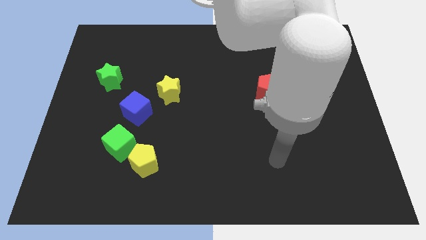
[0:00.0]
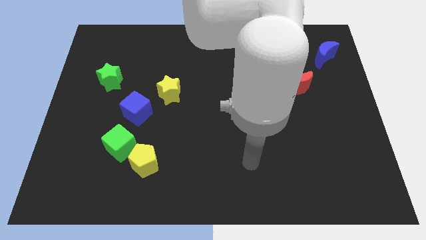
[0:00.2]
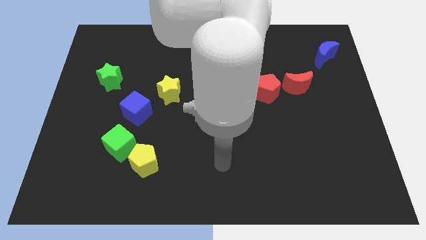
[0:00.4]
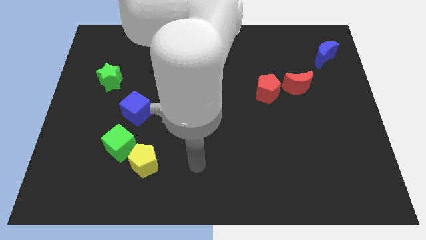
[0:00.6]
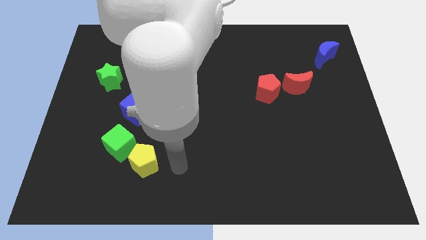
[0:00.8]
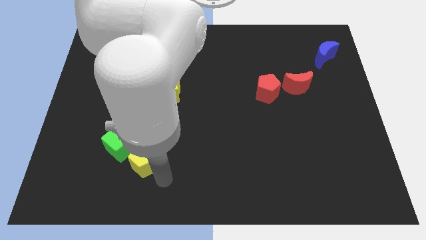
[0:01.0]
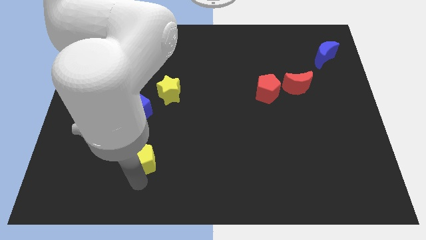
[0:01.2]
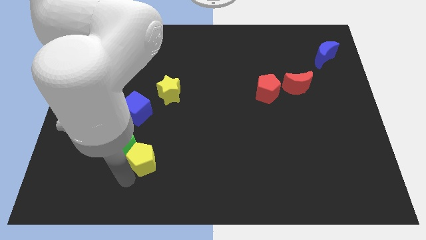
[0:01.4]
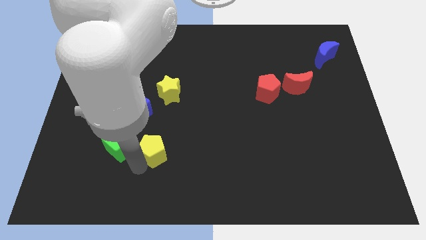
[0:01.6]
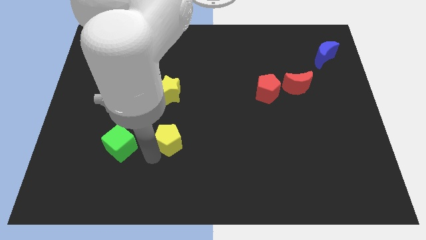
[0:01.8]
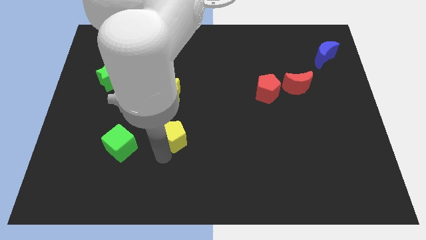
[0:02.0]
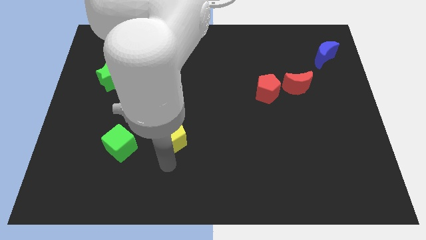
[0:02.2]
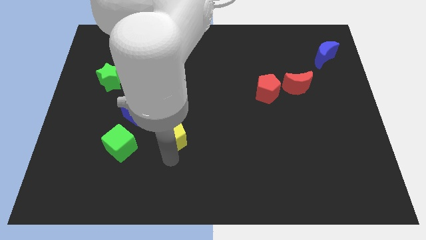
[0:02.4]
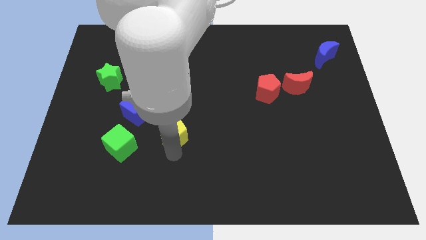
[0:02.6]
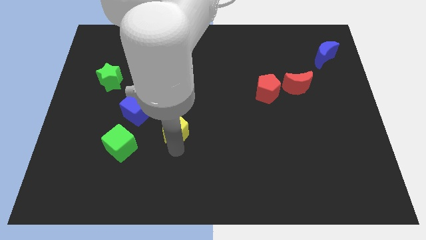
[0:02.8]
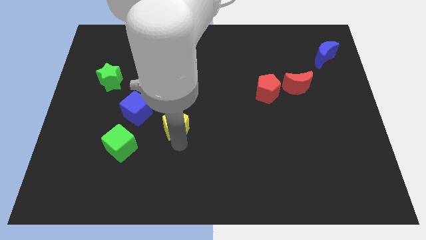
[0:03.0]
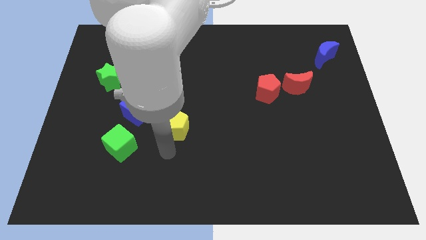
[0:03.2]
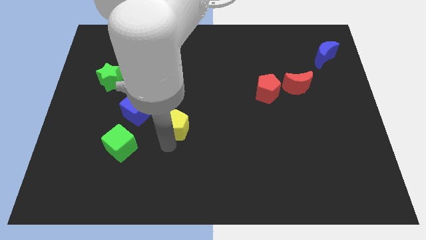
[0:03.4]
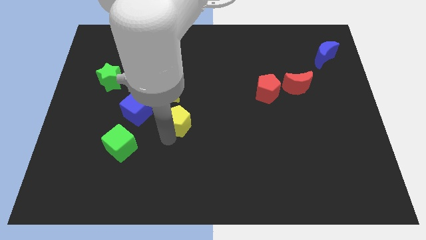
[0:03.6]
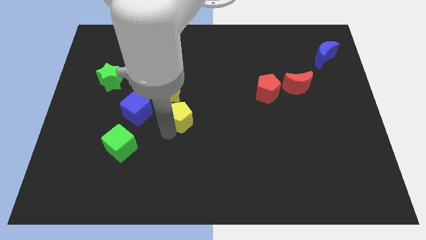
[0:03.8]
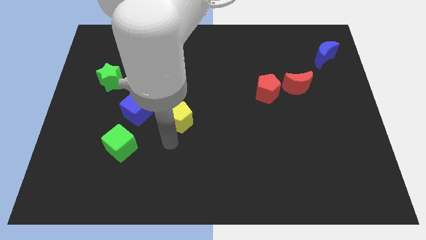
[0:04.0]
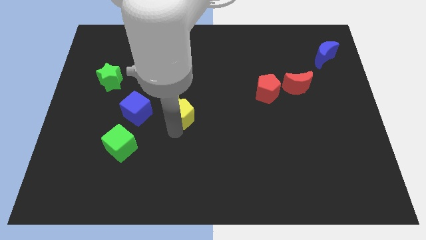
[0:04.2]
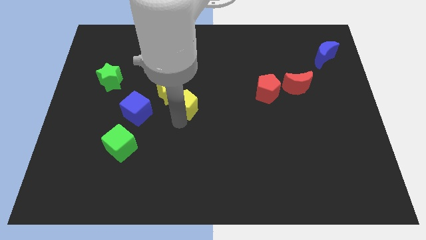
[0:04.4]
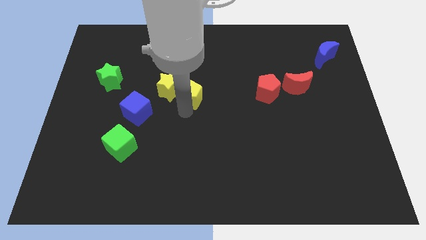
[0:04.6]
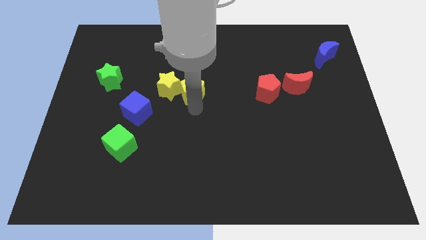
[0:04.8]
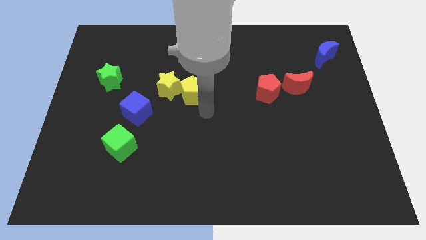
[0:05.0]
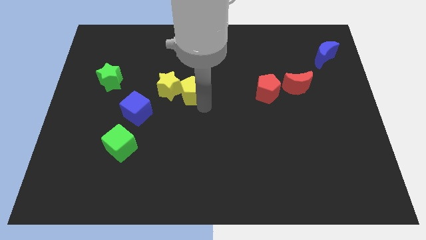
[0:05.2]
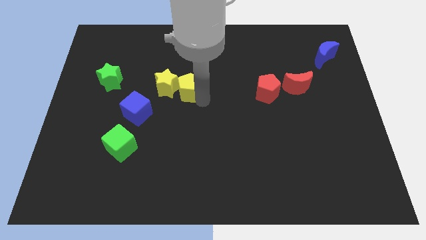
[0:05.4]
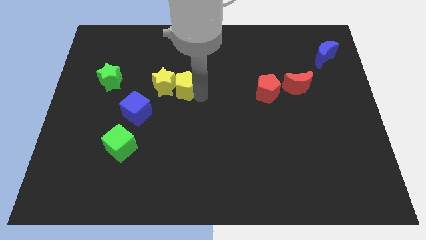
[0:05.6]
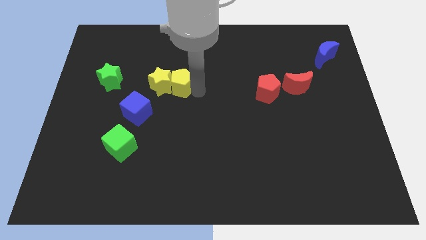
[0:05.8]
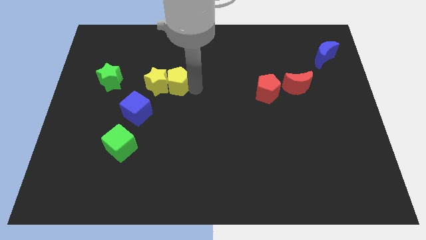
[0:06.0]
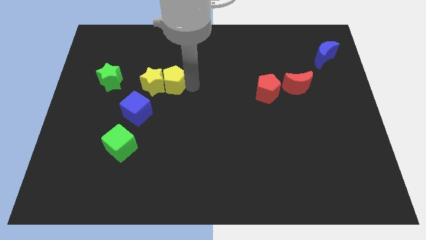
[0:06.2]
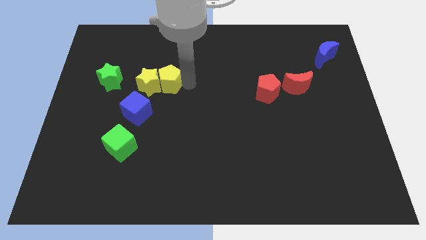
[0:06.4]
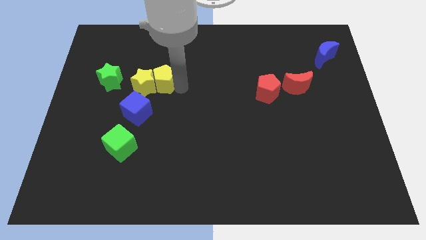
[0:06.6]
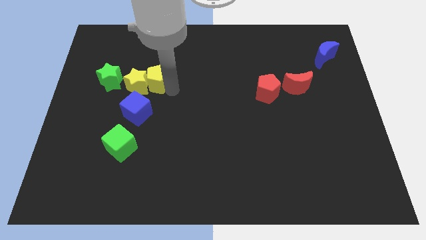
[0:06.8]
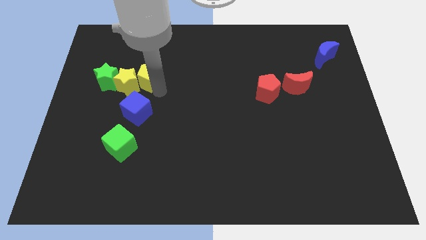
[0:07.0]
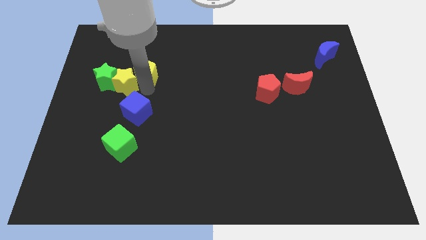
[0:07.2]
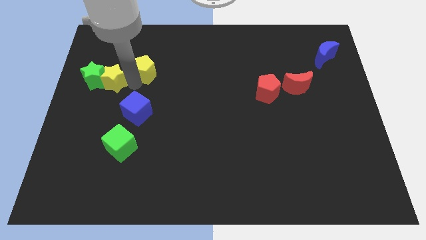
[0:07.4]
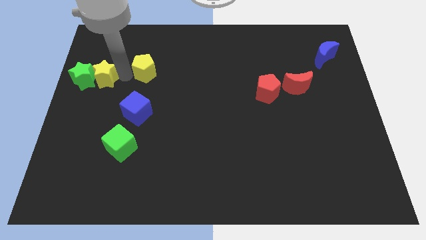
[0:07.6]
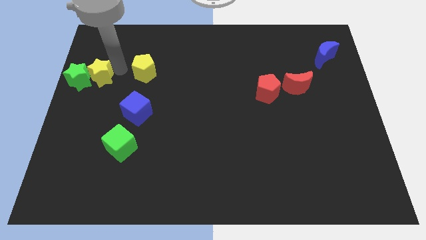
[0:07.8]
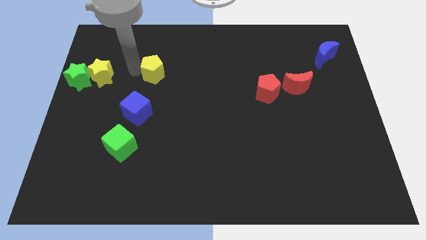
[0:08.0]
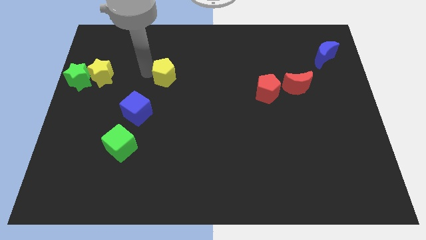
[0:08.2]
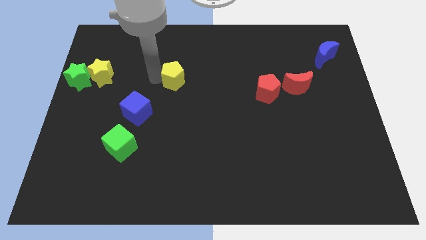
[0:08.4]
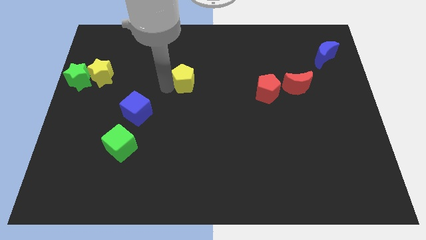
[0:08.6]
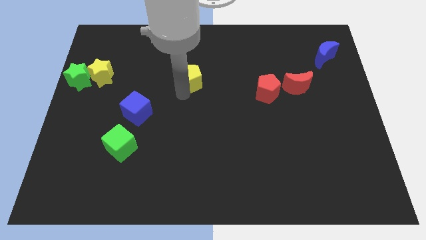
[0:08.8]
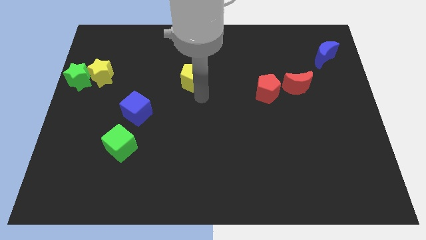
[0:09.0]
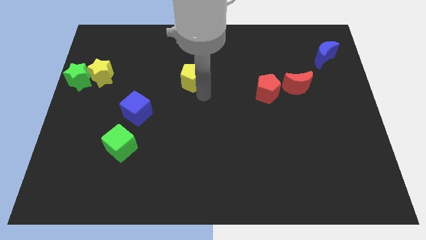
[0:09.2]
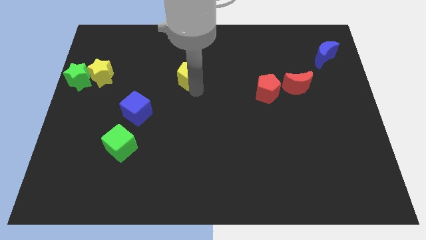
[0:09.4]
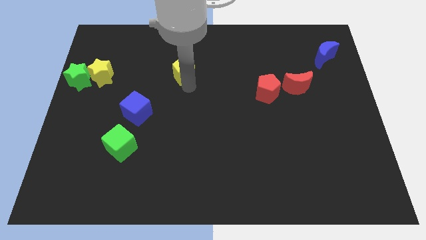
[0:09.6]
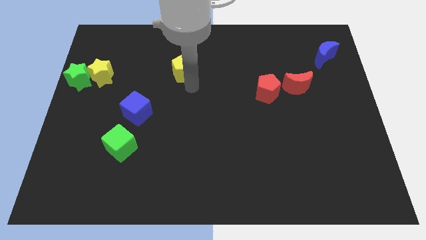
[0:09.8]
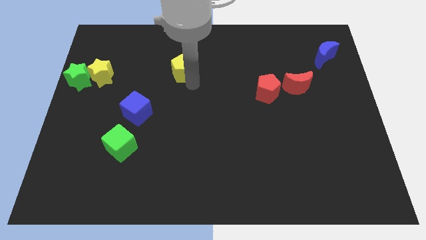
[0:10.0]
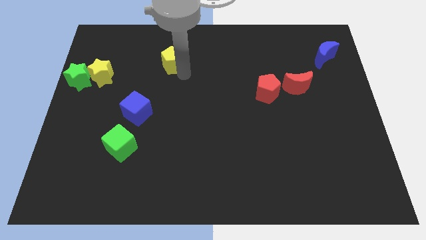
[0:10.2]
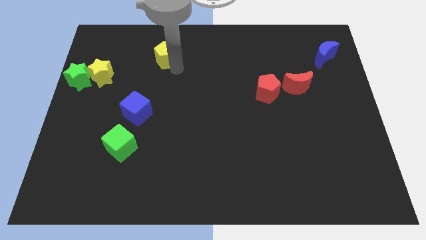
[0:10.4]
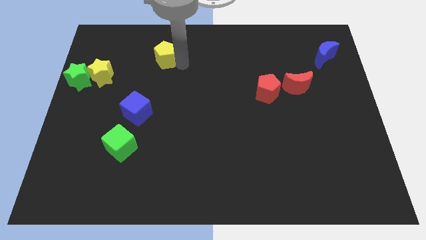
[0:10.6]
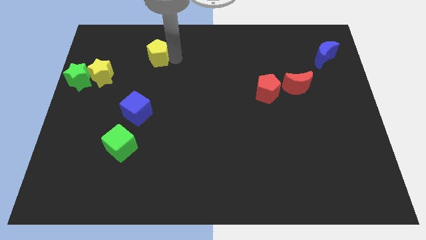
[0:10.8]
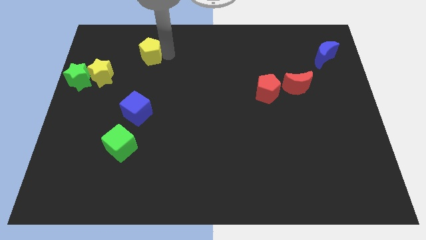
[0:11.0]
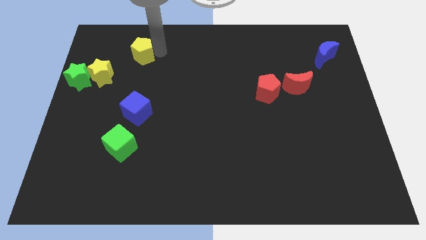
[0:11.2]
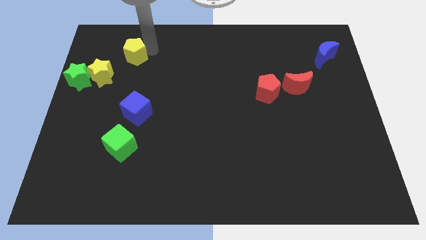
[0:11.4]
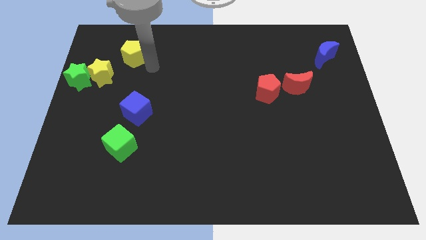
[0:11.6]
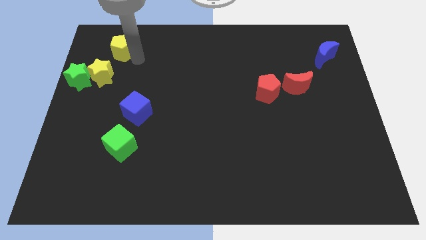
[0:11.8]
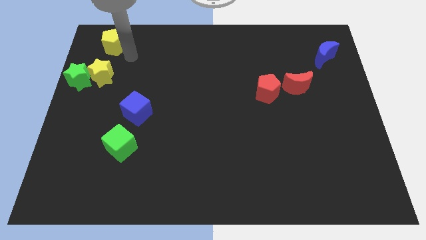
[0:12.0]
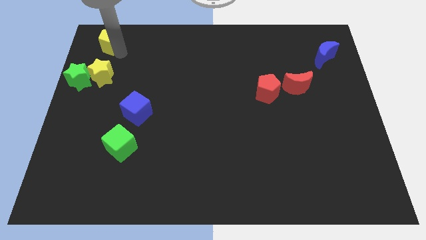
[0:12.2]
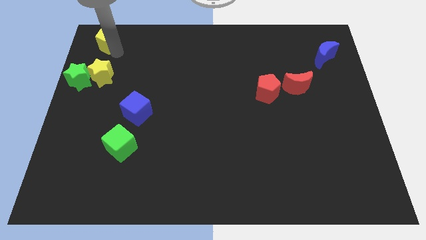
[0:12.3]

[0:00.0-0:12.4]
put the yellow pentagon to the top left corner

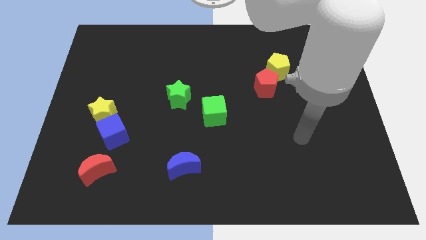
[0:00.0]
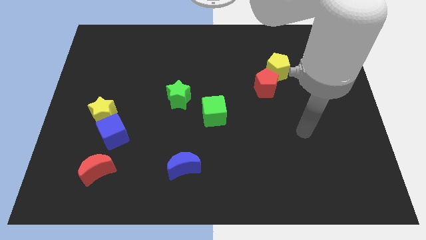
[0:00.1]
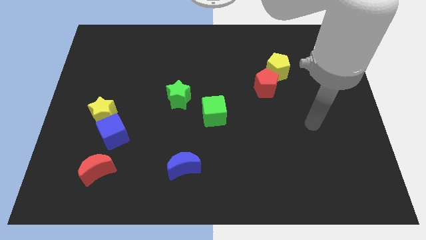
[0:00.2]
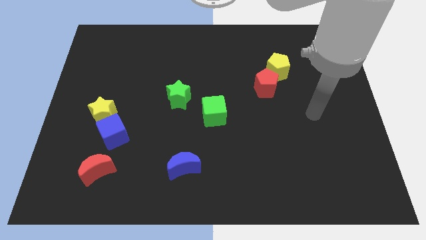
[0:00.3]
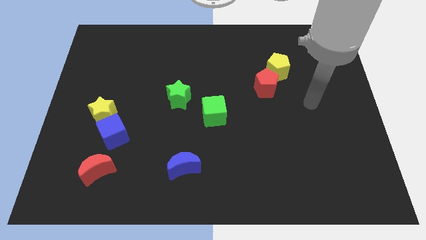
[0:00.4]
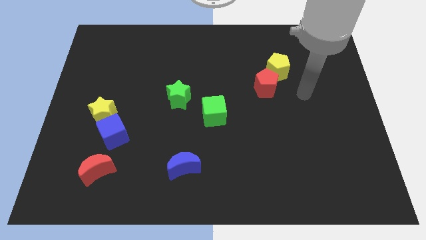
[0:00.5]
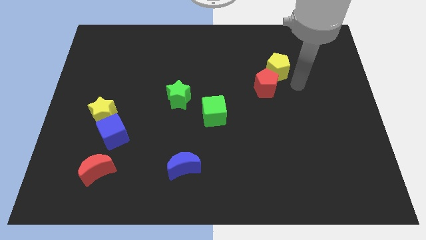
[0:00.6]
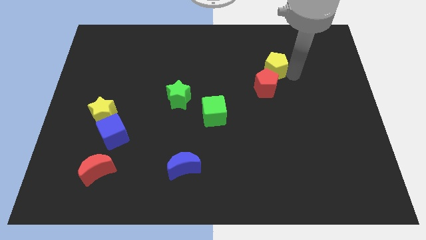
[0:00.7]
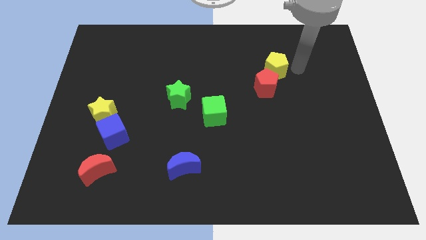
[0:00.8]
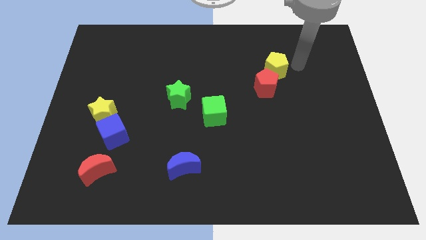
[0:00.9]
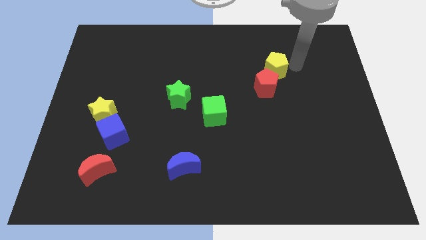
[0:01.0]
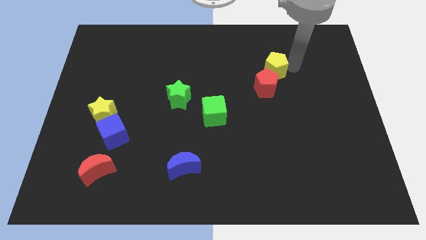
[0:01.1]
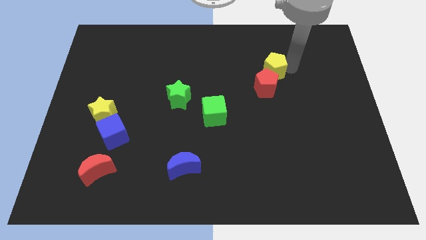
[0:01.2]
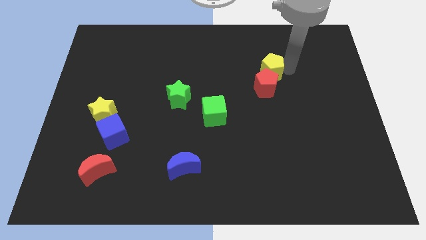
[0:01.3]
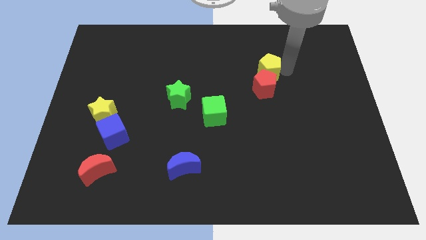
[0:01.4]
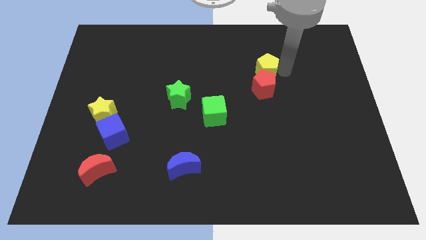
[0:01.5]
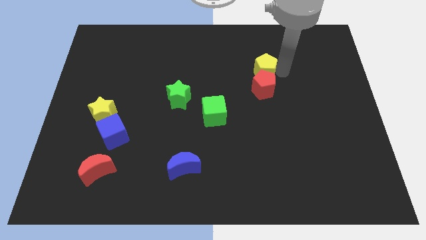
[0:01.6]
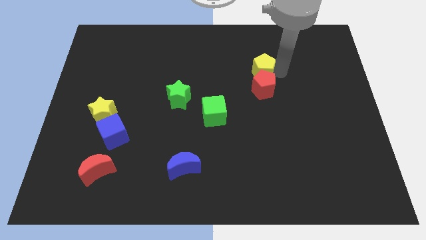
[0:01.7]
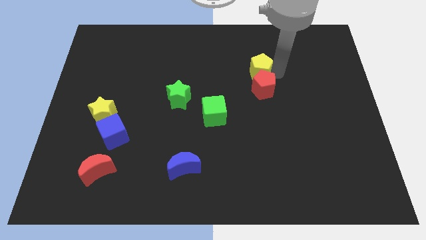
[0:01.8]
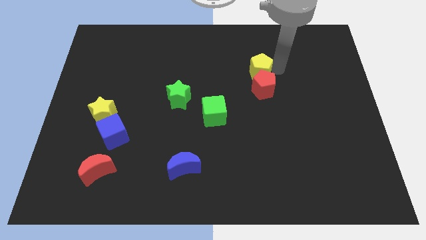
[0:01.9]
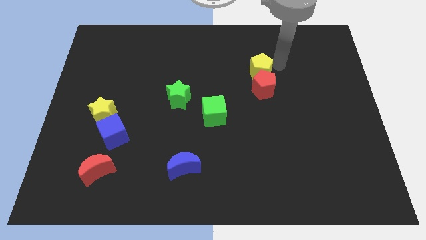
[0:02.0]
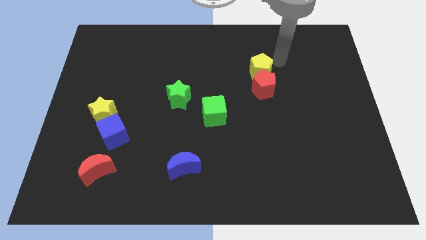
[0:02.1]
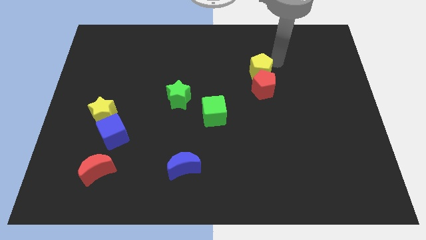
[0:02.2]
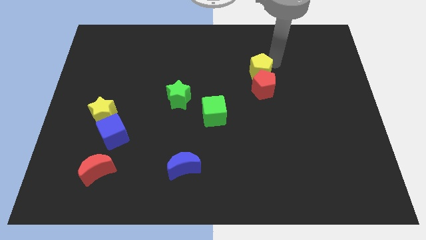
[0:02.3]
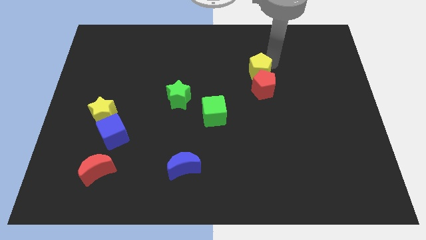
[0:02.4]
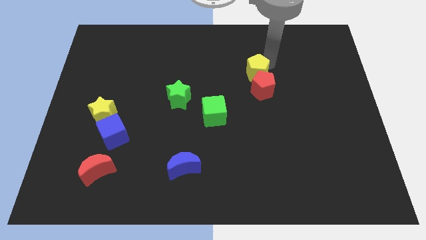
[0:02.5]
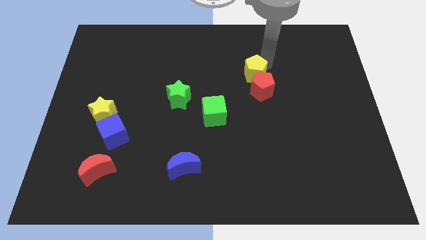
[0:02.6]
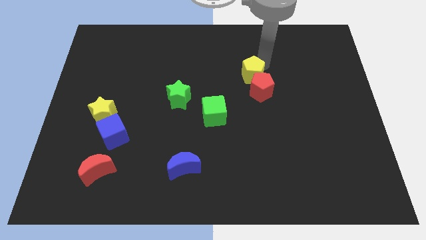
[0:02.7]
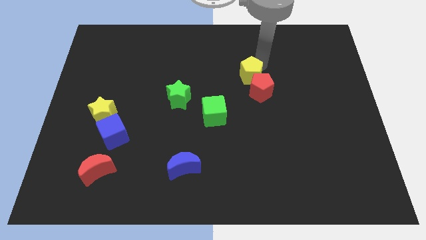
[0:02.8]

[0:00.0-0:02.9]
slide the yellow pentagon to the middle
